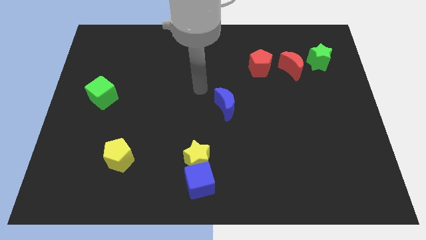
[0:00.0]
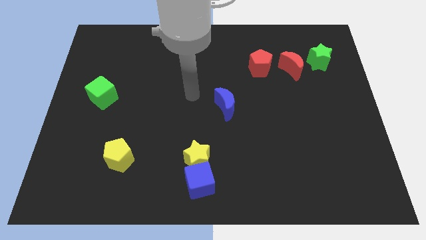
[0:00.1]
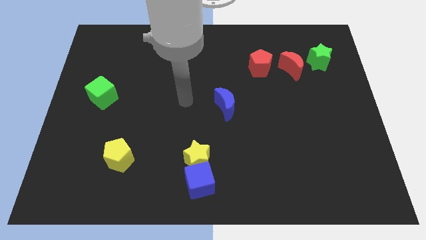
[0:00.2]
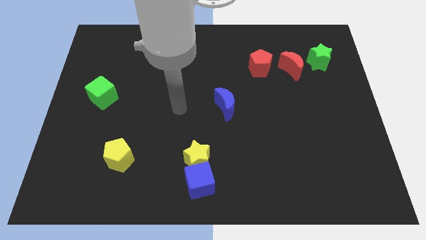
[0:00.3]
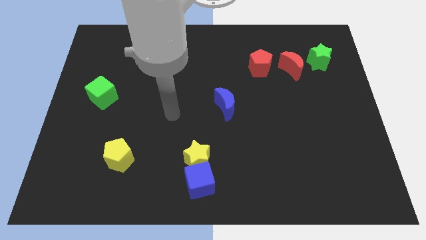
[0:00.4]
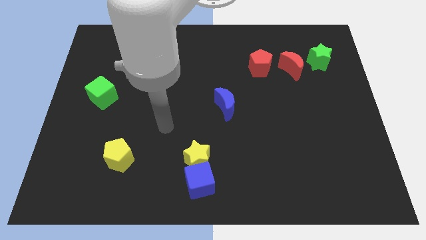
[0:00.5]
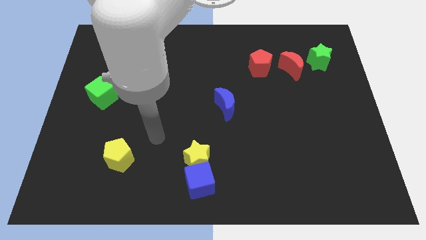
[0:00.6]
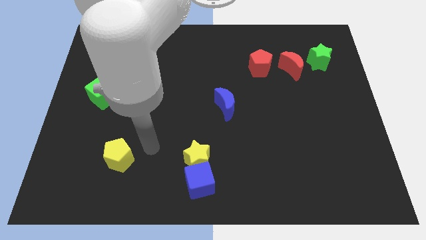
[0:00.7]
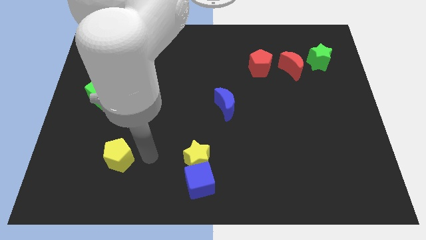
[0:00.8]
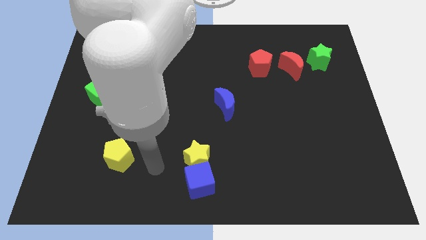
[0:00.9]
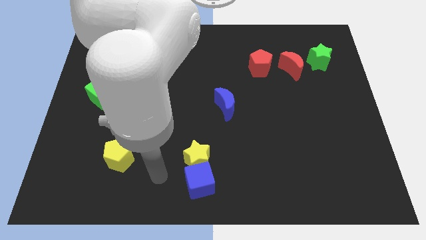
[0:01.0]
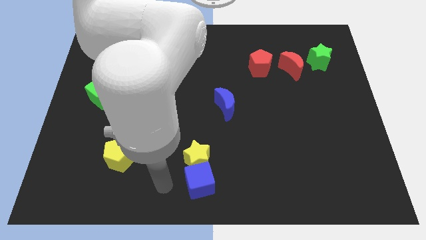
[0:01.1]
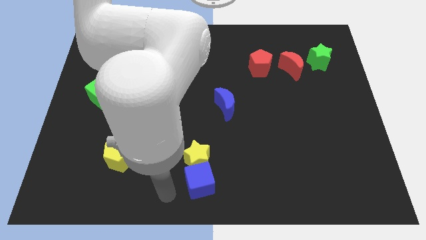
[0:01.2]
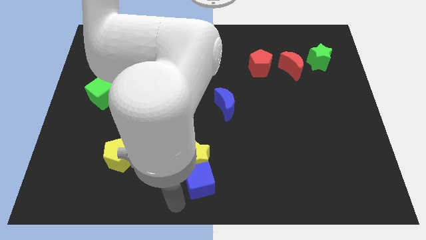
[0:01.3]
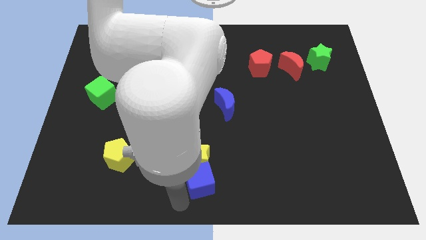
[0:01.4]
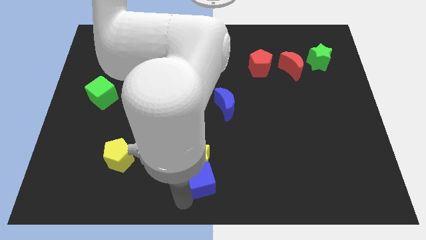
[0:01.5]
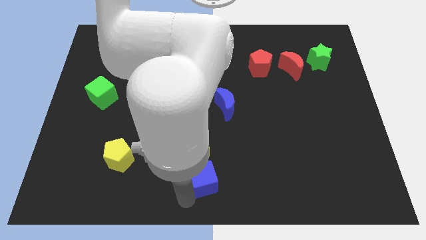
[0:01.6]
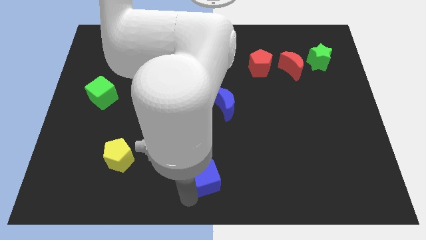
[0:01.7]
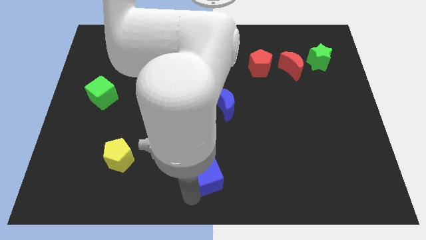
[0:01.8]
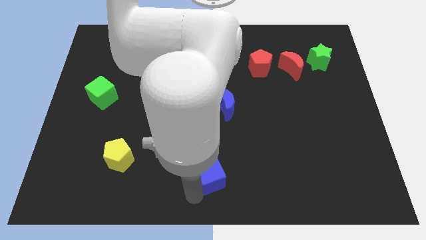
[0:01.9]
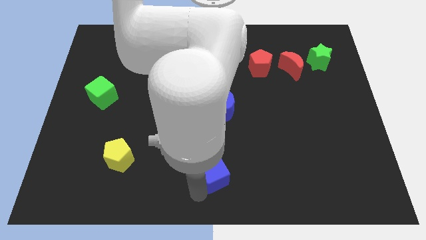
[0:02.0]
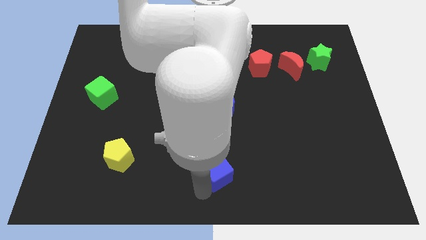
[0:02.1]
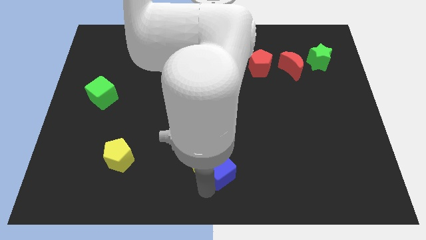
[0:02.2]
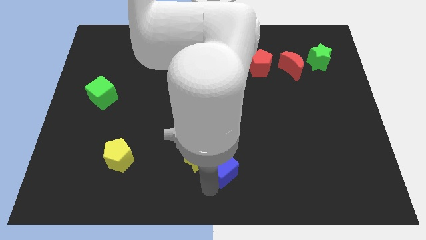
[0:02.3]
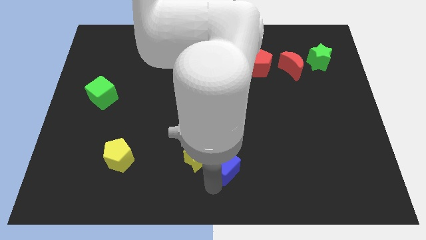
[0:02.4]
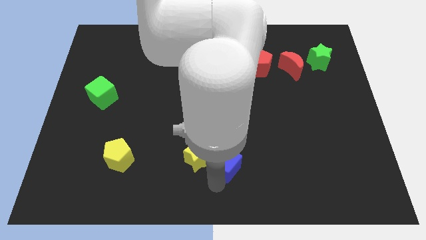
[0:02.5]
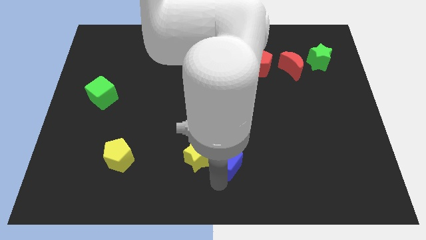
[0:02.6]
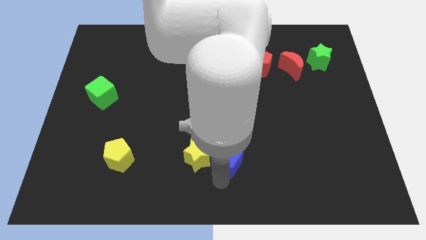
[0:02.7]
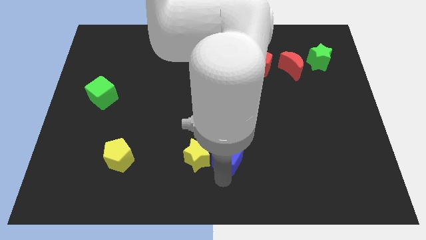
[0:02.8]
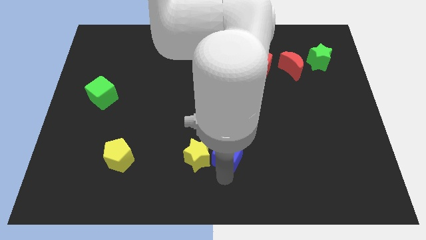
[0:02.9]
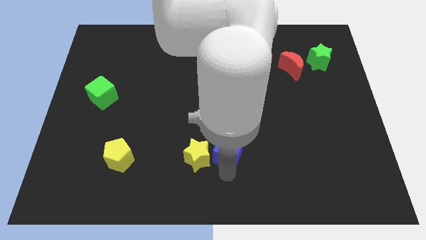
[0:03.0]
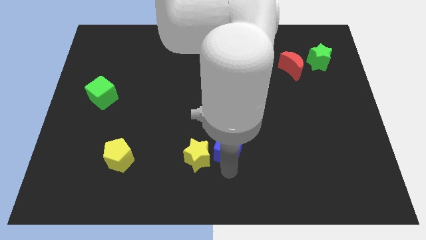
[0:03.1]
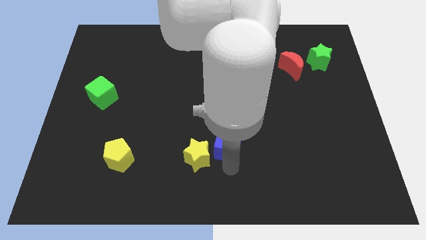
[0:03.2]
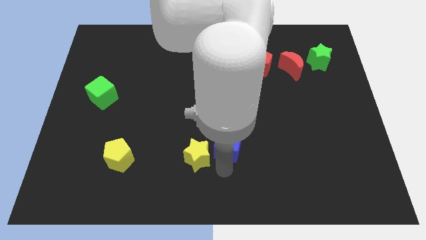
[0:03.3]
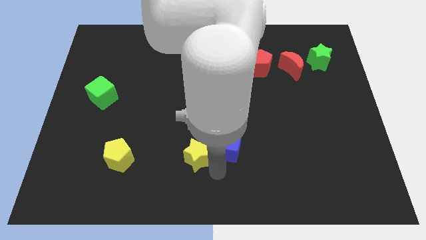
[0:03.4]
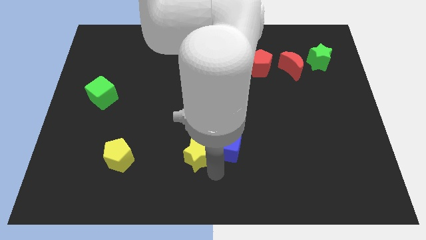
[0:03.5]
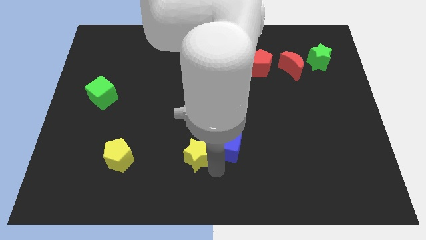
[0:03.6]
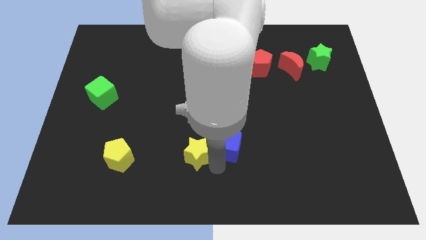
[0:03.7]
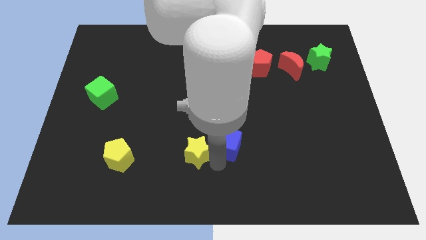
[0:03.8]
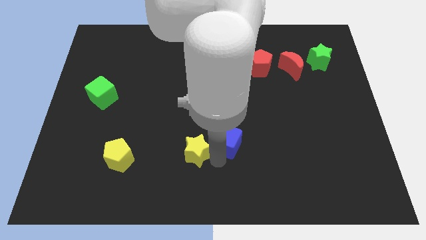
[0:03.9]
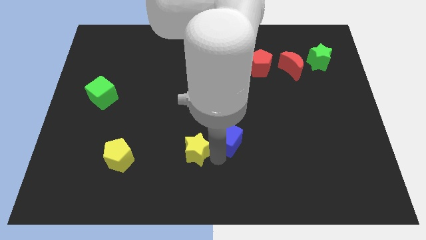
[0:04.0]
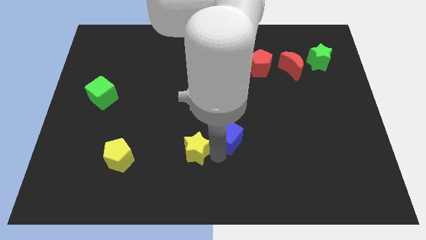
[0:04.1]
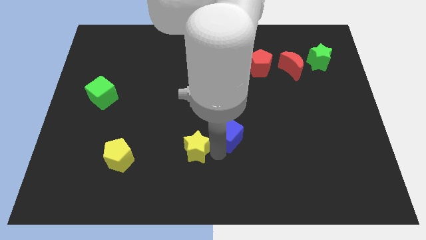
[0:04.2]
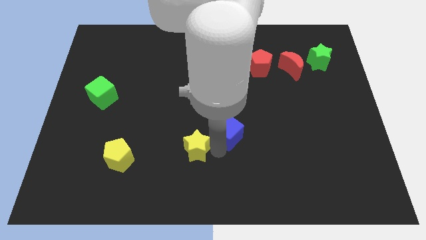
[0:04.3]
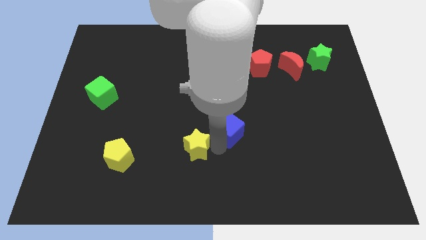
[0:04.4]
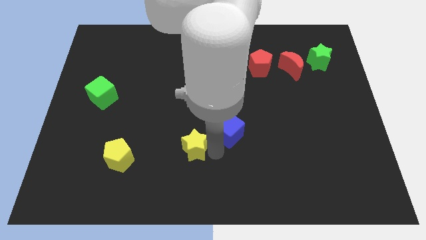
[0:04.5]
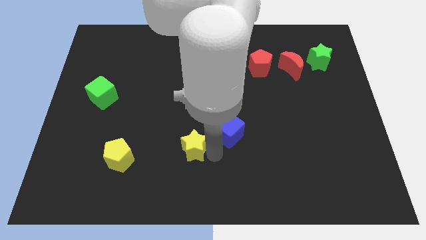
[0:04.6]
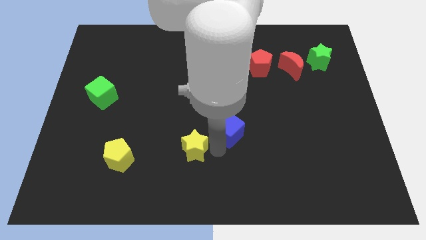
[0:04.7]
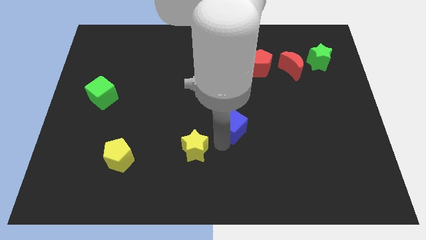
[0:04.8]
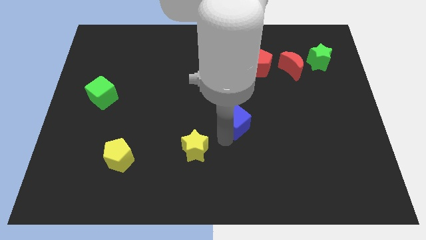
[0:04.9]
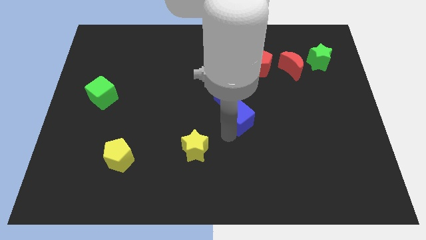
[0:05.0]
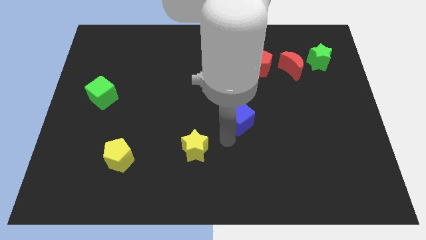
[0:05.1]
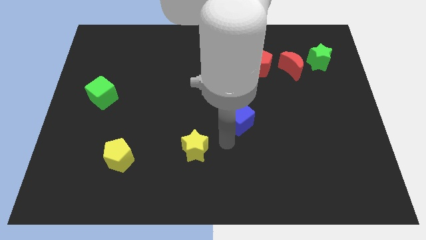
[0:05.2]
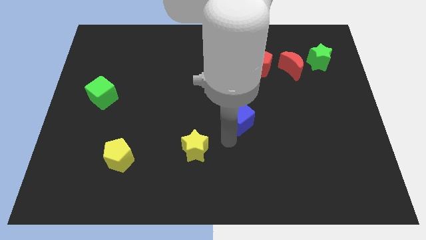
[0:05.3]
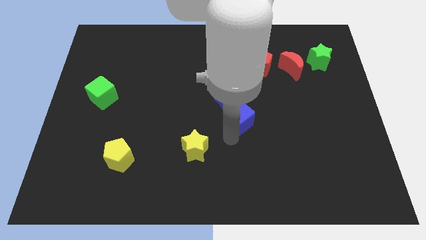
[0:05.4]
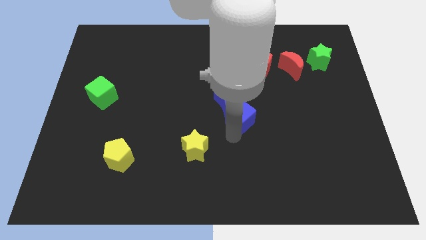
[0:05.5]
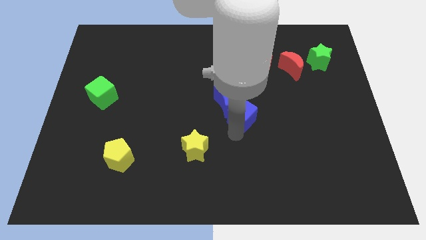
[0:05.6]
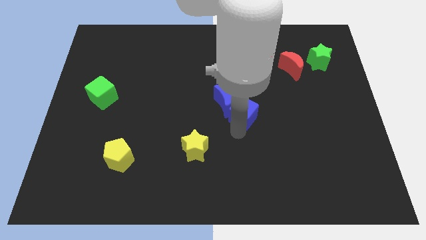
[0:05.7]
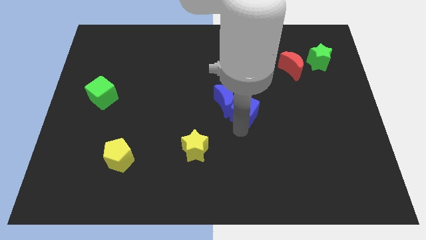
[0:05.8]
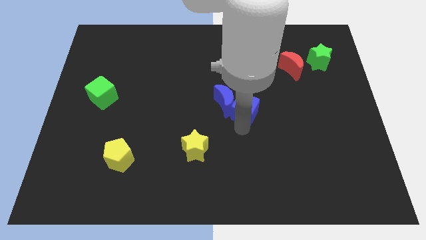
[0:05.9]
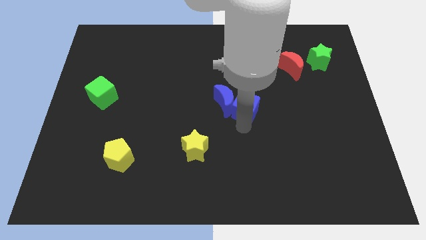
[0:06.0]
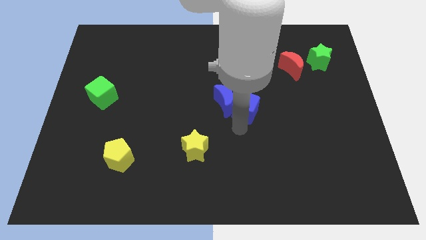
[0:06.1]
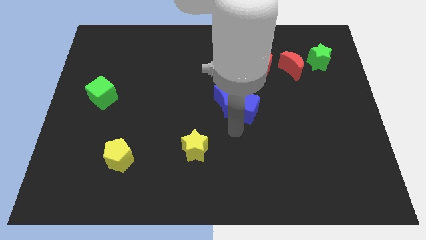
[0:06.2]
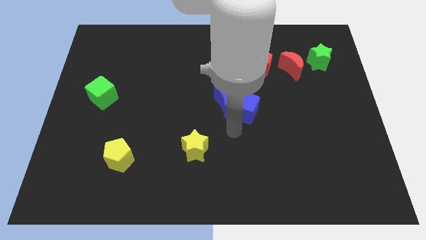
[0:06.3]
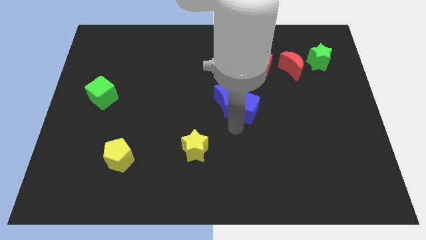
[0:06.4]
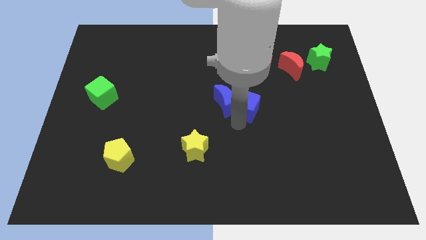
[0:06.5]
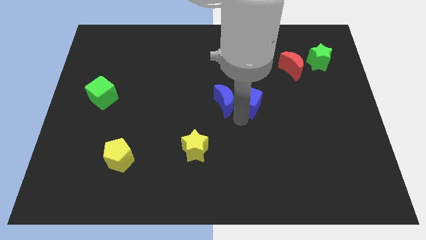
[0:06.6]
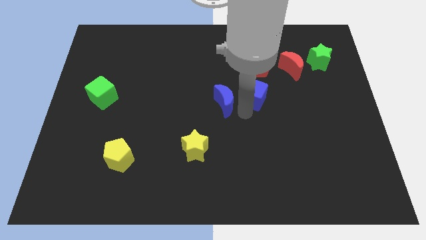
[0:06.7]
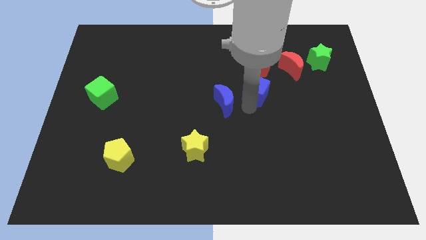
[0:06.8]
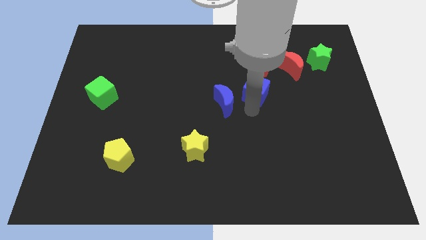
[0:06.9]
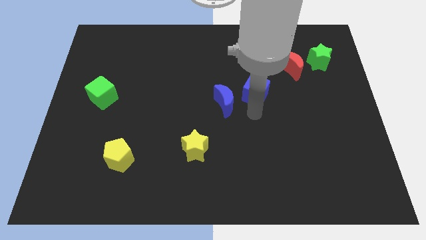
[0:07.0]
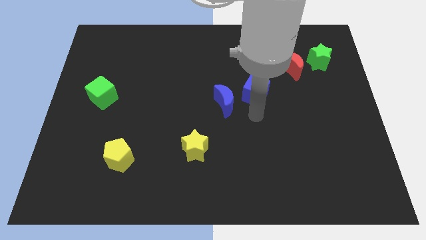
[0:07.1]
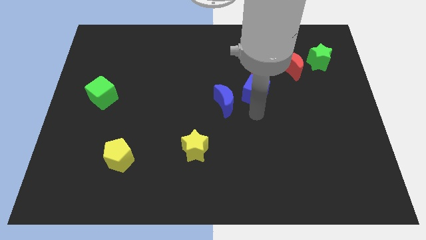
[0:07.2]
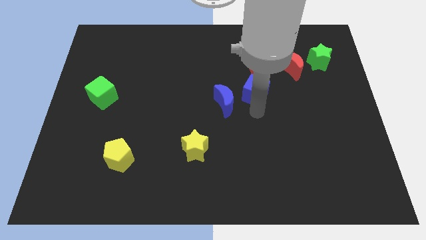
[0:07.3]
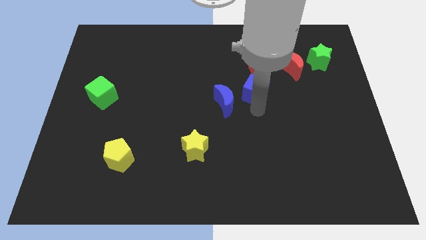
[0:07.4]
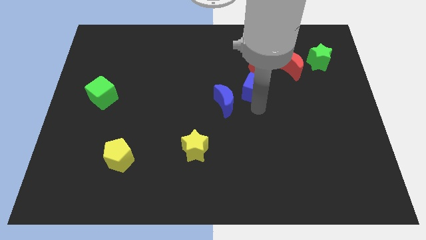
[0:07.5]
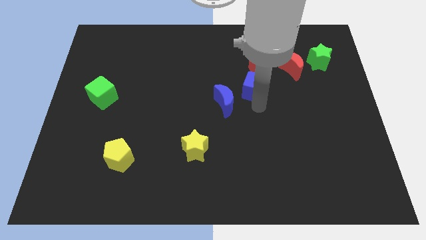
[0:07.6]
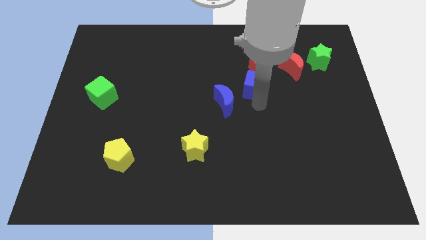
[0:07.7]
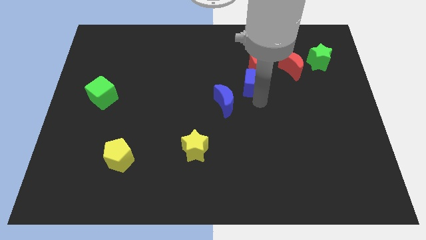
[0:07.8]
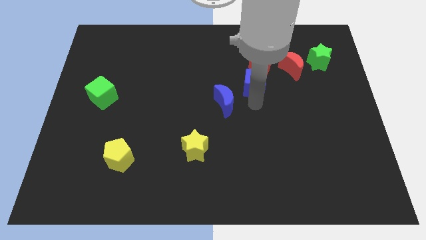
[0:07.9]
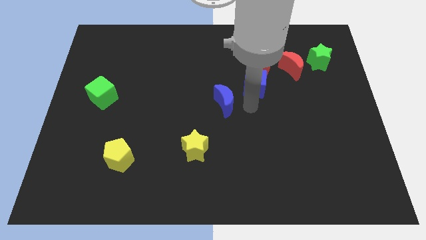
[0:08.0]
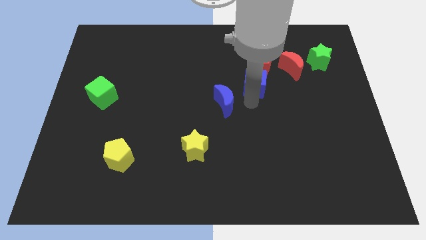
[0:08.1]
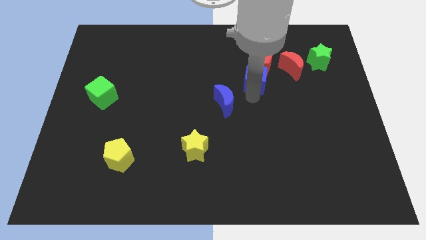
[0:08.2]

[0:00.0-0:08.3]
move the blue cube to the red pentagon
